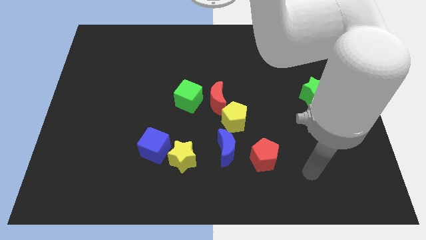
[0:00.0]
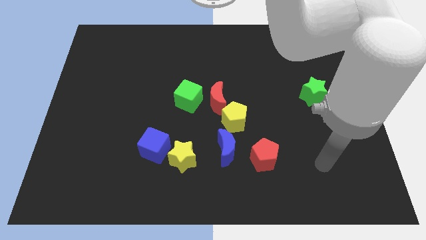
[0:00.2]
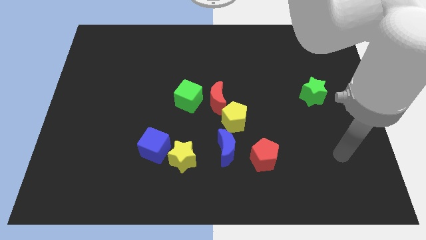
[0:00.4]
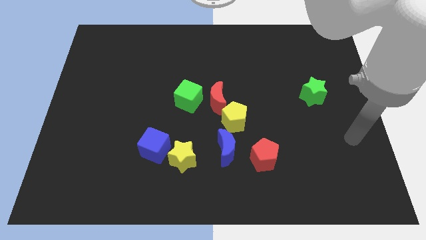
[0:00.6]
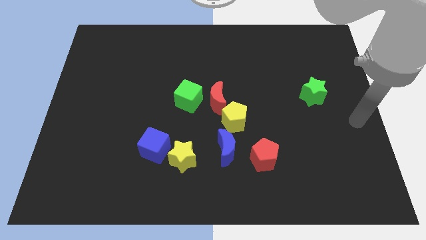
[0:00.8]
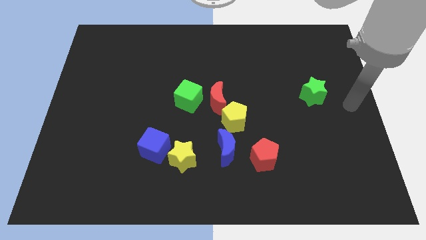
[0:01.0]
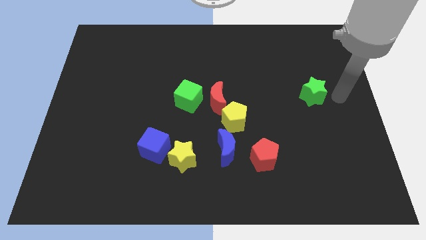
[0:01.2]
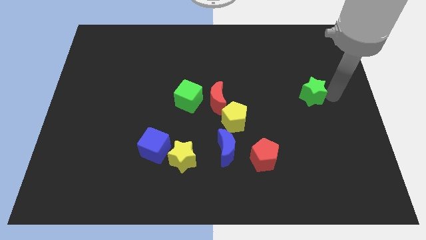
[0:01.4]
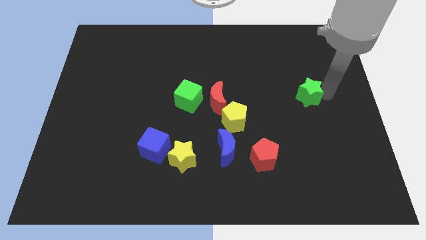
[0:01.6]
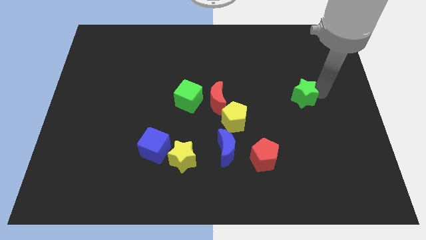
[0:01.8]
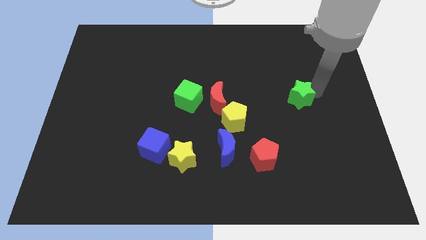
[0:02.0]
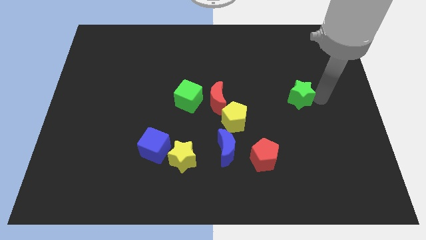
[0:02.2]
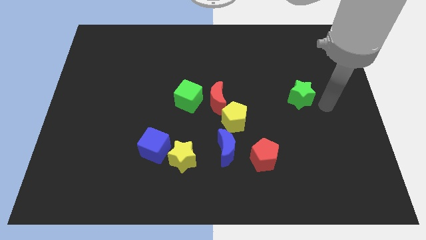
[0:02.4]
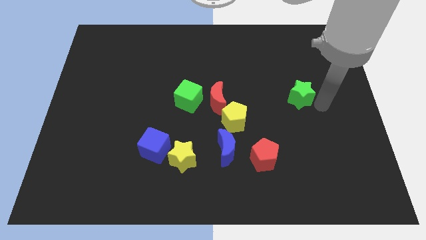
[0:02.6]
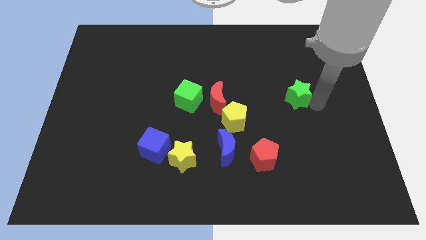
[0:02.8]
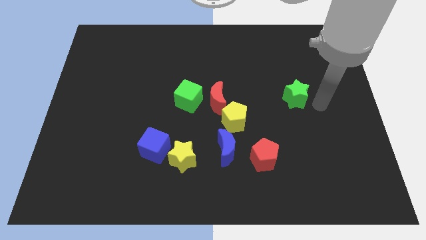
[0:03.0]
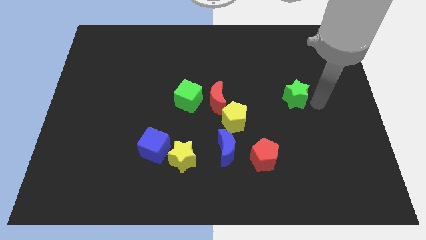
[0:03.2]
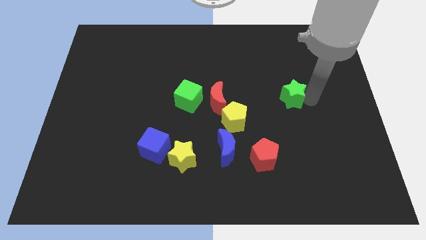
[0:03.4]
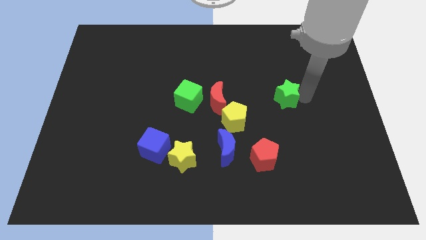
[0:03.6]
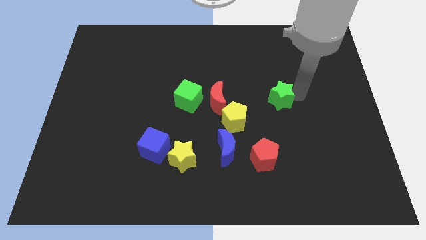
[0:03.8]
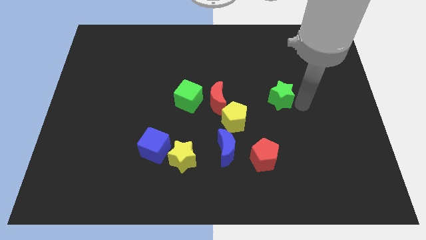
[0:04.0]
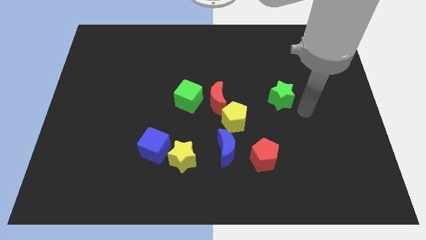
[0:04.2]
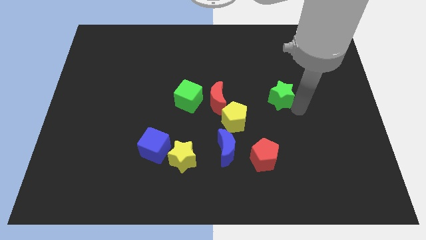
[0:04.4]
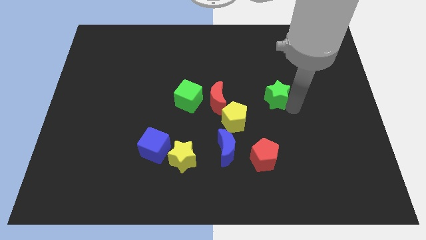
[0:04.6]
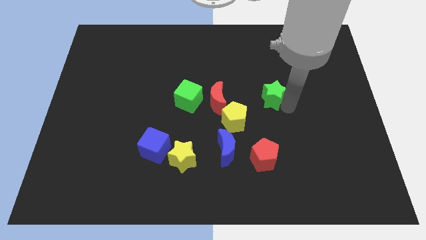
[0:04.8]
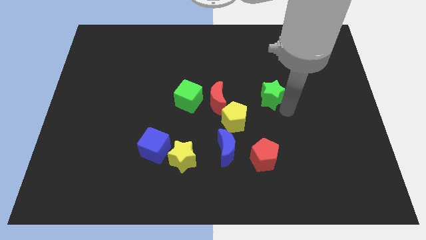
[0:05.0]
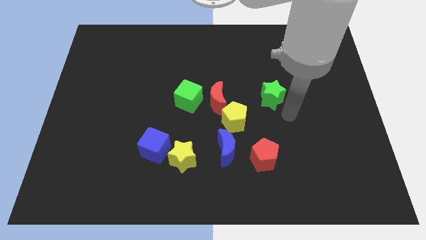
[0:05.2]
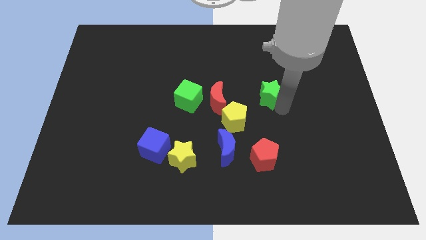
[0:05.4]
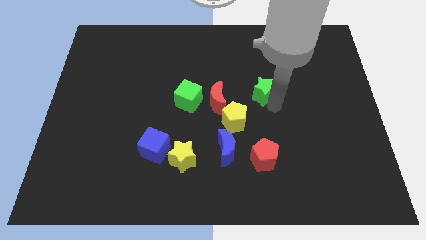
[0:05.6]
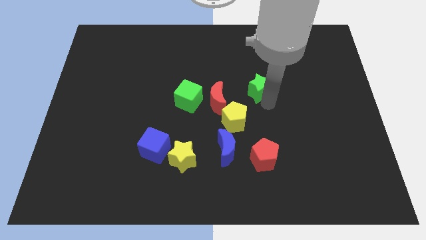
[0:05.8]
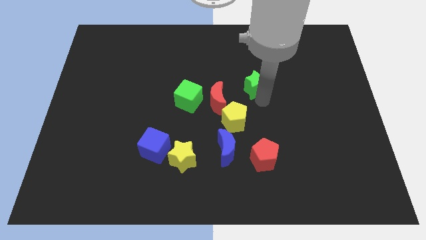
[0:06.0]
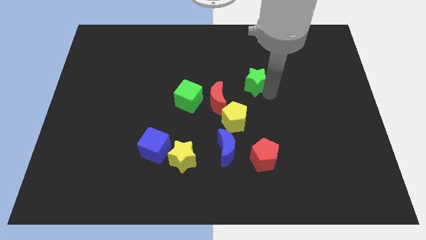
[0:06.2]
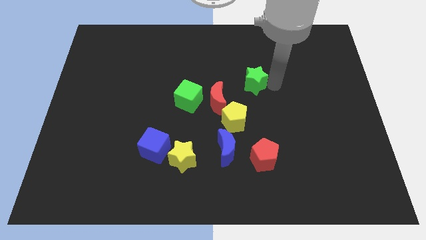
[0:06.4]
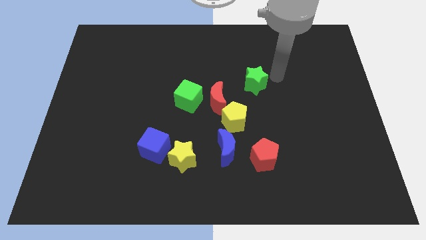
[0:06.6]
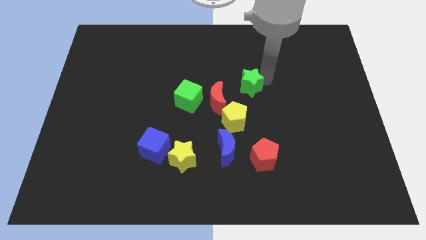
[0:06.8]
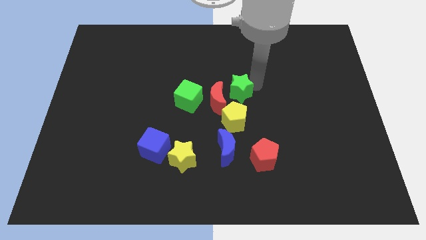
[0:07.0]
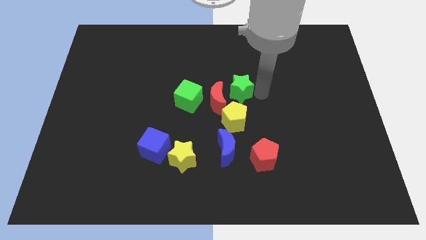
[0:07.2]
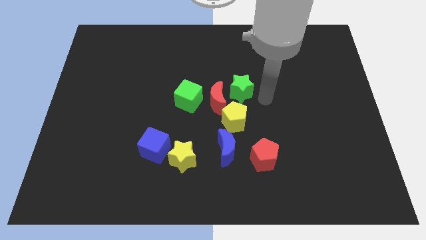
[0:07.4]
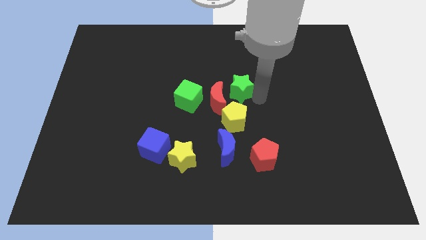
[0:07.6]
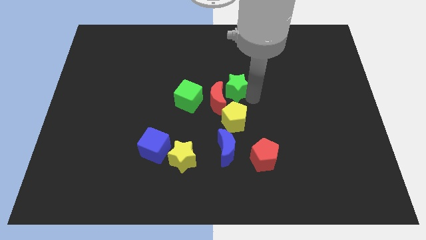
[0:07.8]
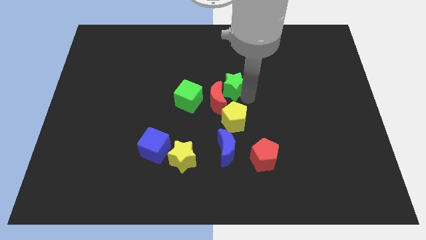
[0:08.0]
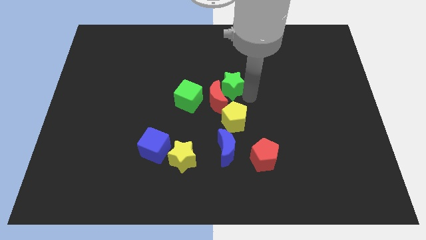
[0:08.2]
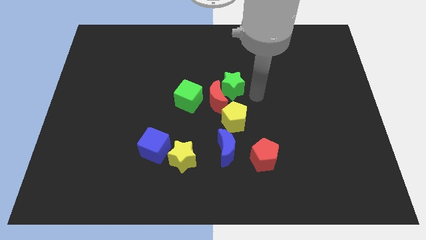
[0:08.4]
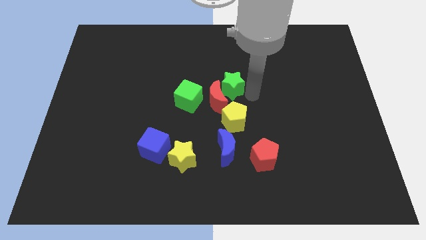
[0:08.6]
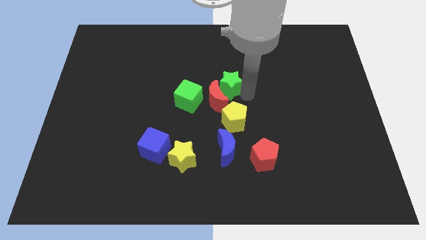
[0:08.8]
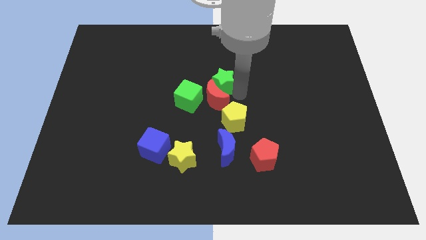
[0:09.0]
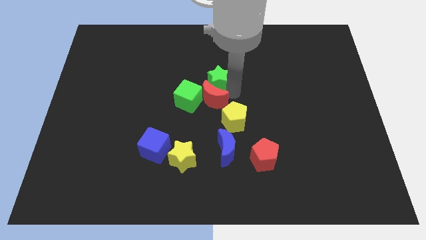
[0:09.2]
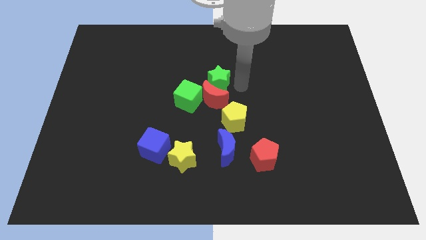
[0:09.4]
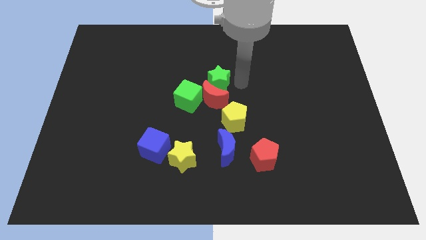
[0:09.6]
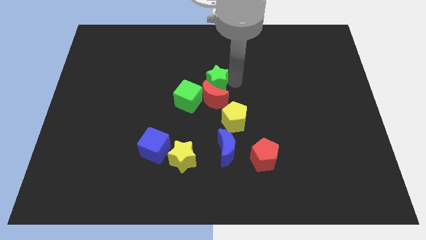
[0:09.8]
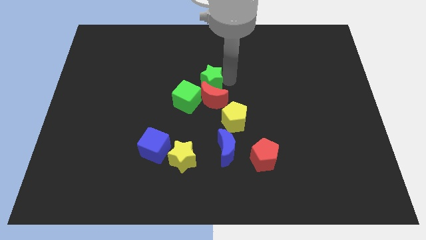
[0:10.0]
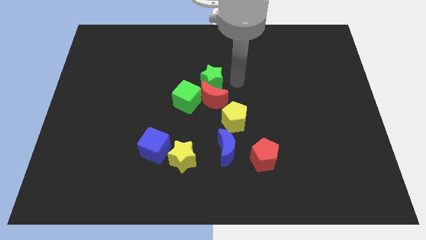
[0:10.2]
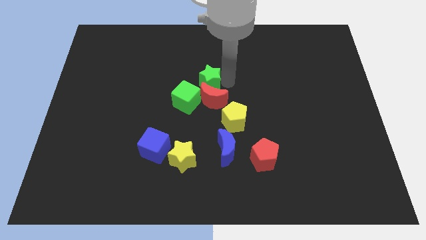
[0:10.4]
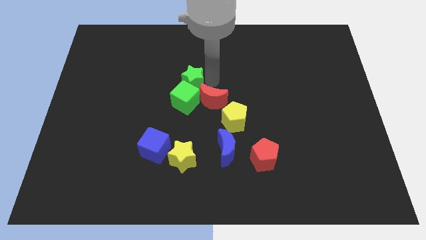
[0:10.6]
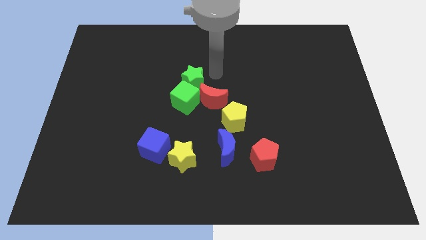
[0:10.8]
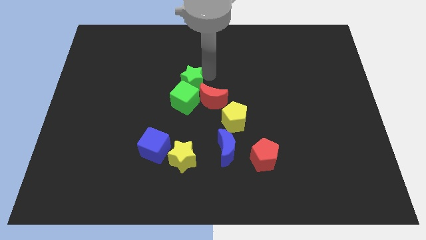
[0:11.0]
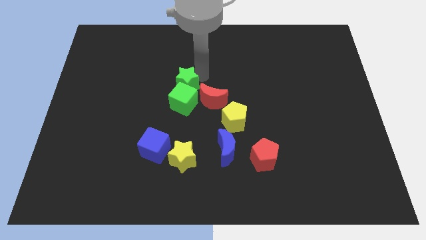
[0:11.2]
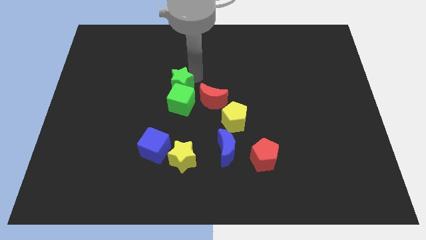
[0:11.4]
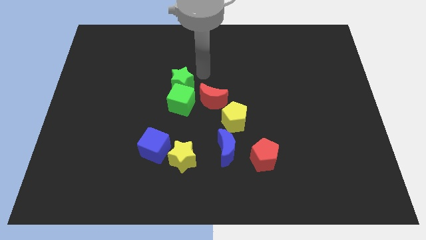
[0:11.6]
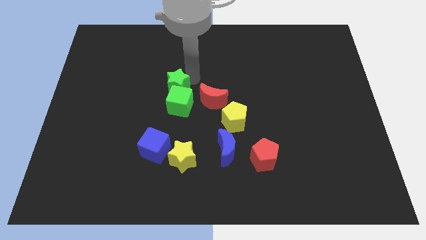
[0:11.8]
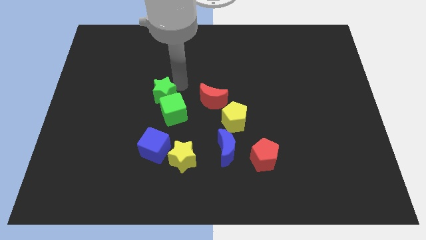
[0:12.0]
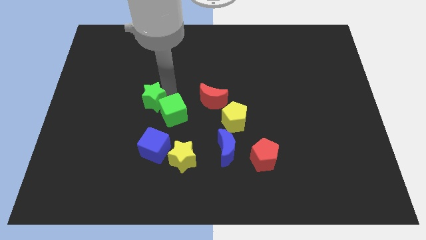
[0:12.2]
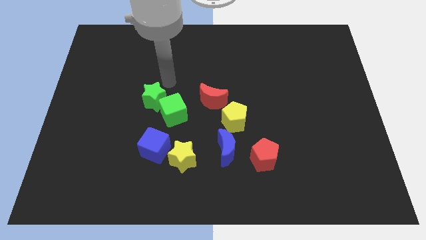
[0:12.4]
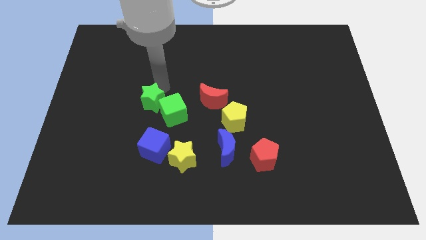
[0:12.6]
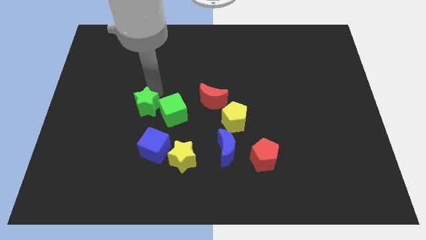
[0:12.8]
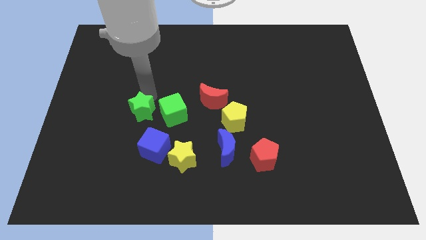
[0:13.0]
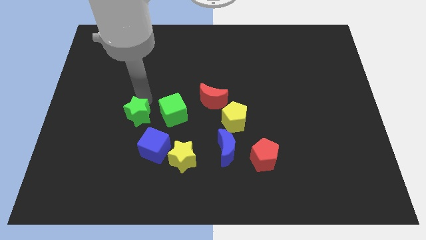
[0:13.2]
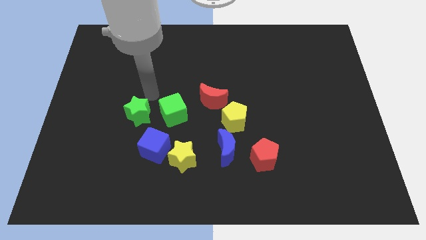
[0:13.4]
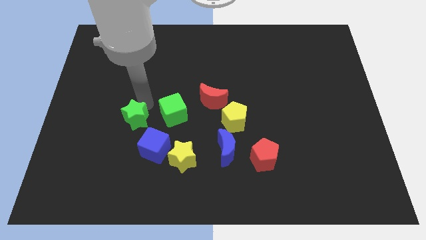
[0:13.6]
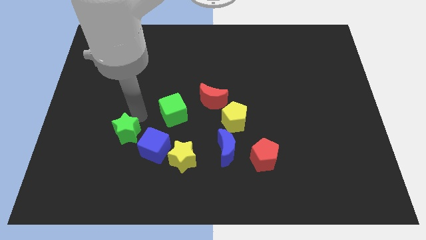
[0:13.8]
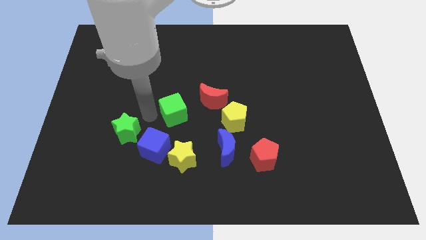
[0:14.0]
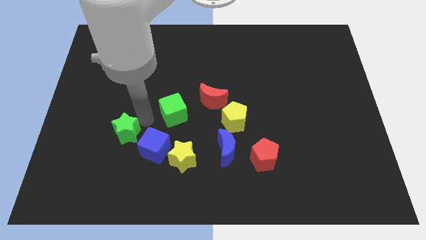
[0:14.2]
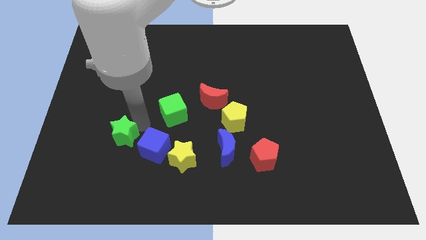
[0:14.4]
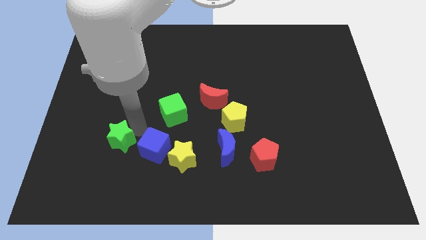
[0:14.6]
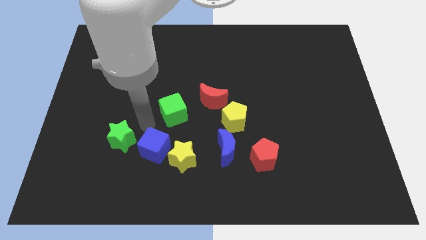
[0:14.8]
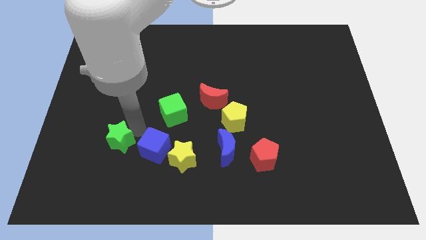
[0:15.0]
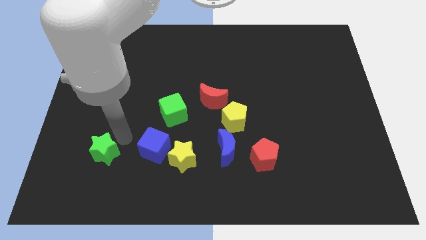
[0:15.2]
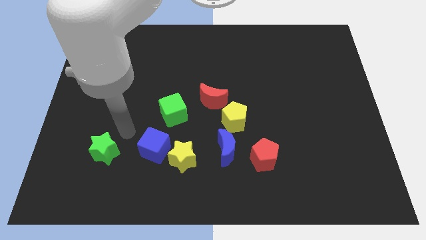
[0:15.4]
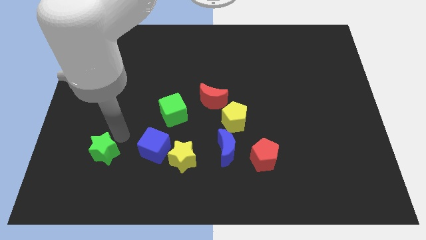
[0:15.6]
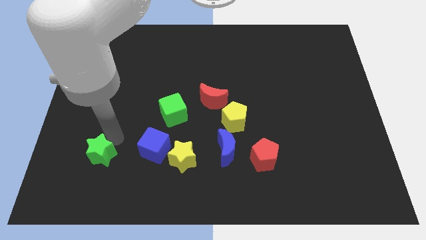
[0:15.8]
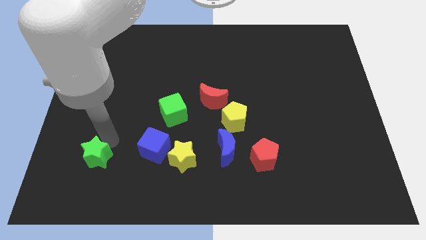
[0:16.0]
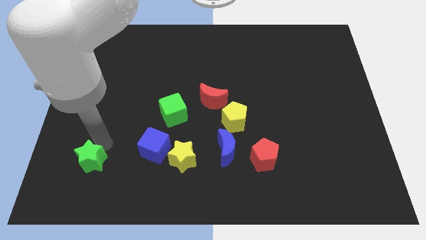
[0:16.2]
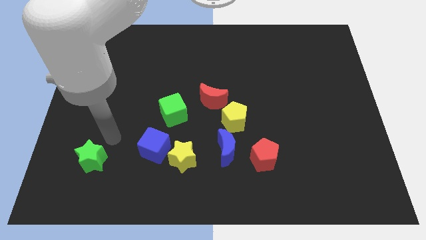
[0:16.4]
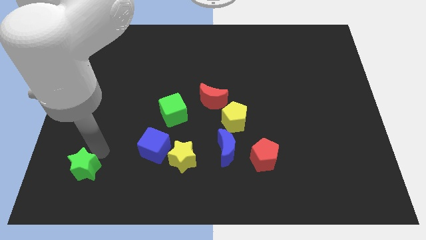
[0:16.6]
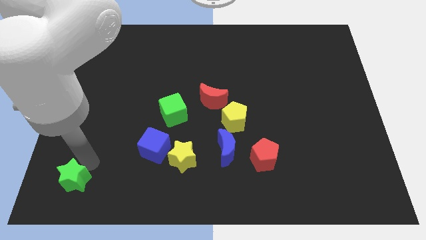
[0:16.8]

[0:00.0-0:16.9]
put the green star to the lower left corner
